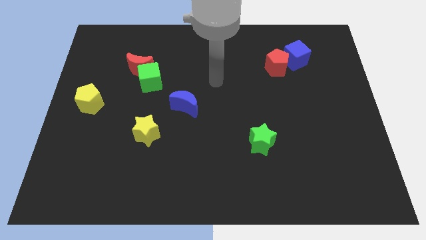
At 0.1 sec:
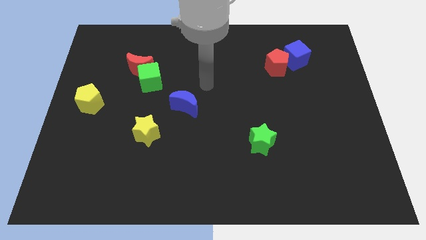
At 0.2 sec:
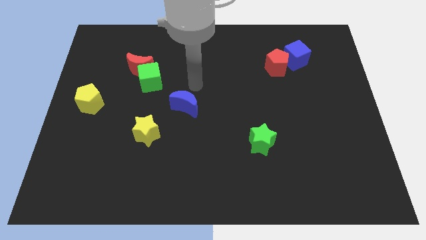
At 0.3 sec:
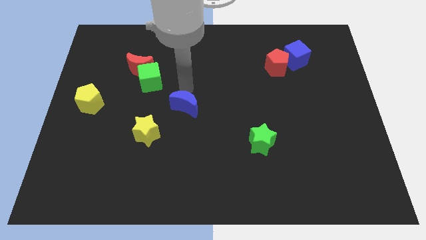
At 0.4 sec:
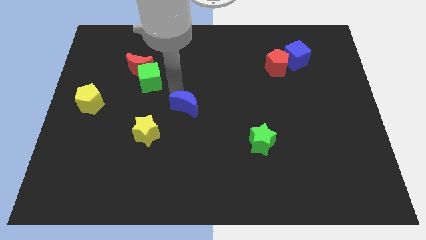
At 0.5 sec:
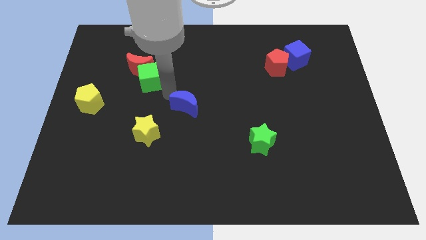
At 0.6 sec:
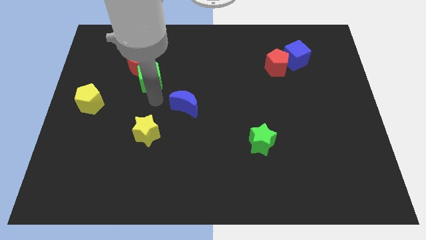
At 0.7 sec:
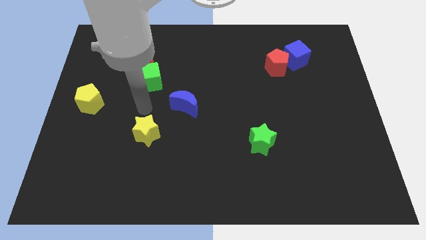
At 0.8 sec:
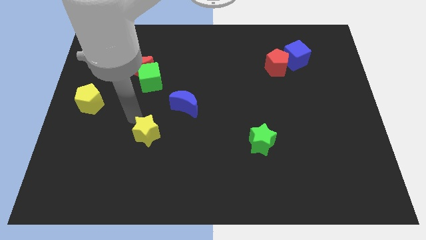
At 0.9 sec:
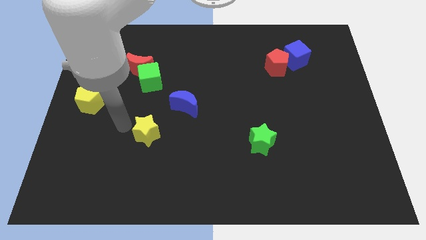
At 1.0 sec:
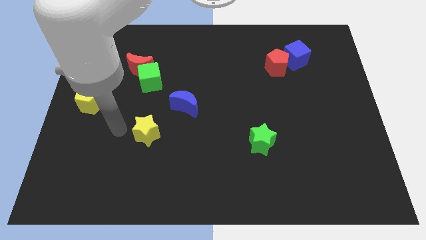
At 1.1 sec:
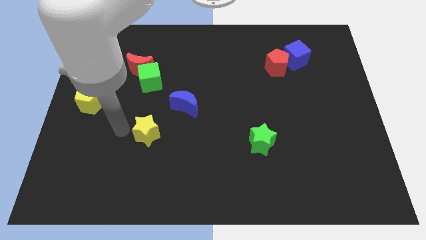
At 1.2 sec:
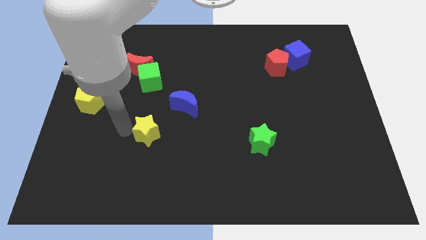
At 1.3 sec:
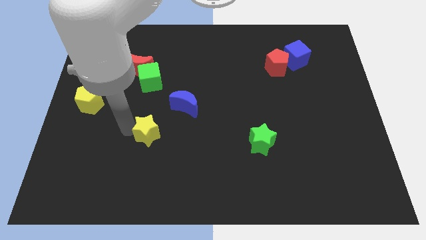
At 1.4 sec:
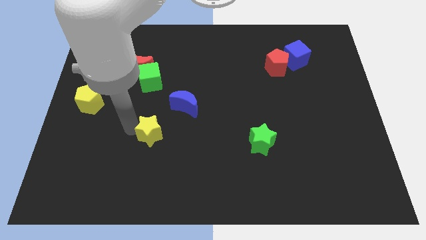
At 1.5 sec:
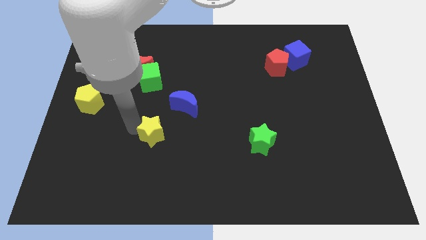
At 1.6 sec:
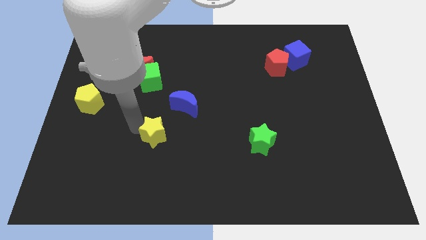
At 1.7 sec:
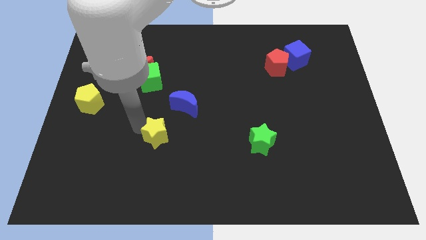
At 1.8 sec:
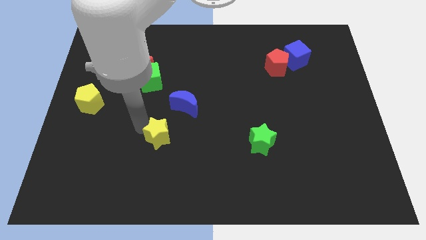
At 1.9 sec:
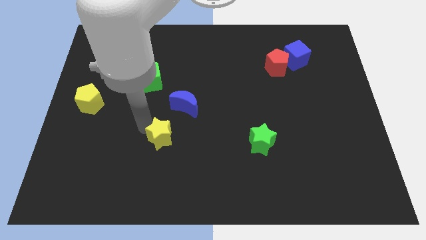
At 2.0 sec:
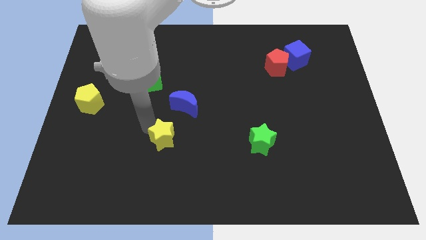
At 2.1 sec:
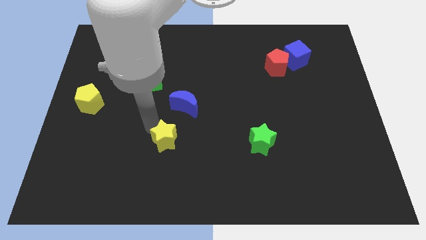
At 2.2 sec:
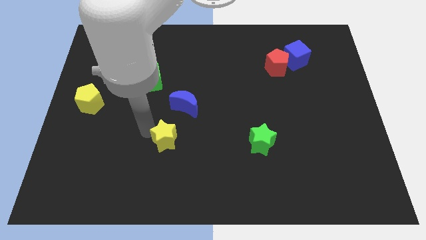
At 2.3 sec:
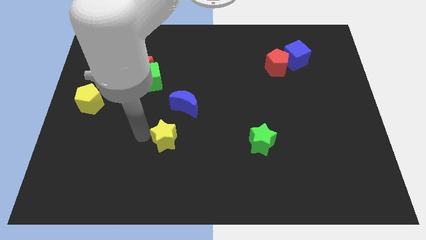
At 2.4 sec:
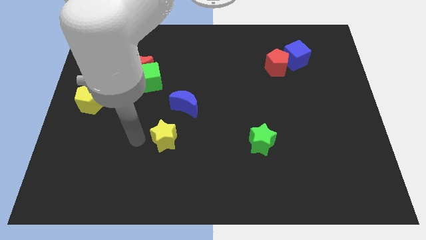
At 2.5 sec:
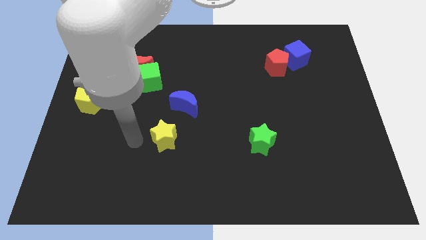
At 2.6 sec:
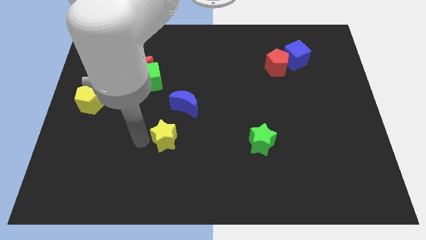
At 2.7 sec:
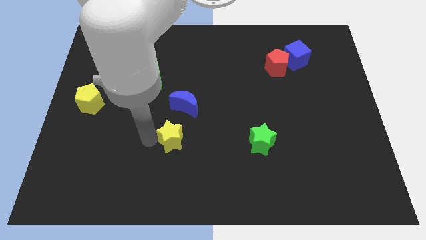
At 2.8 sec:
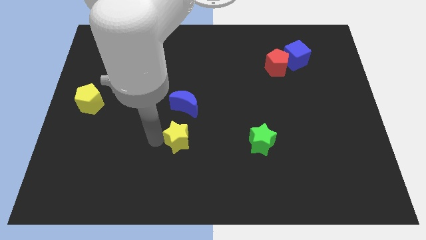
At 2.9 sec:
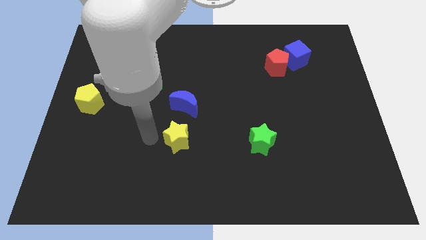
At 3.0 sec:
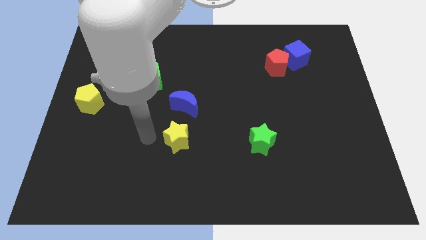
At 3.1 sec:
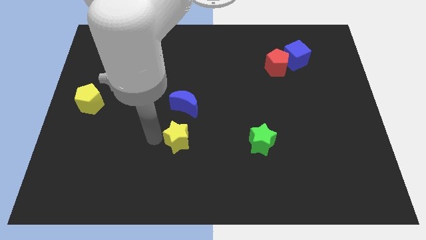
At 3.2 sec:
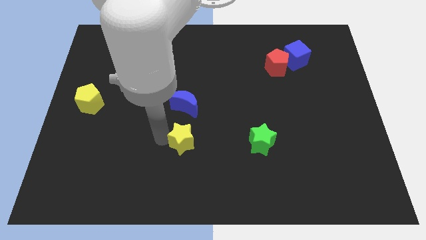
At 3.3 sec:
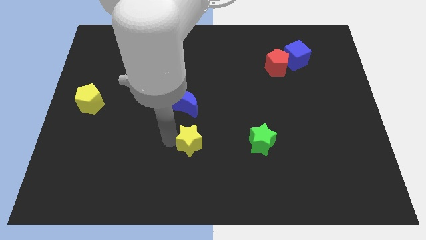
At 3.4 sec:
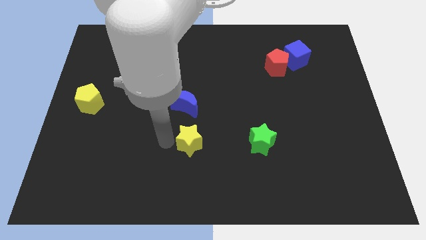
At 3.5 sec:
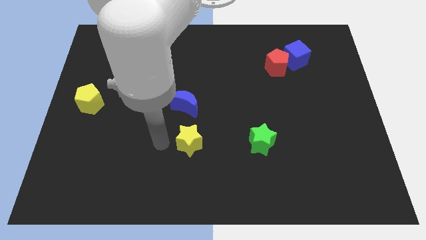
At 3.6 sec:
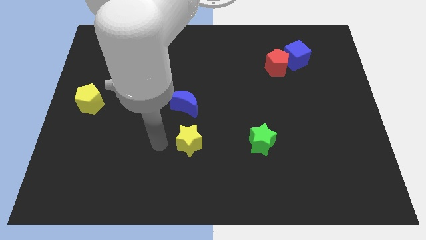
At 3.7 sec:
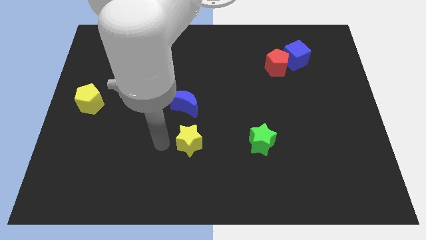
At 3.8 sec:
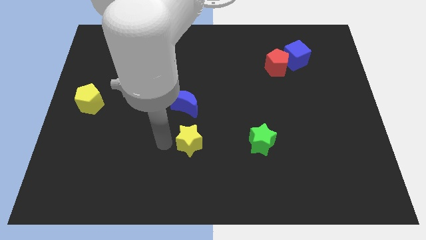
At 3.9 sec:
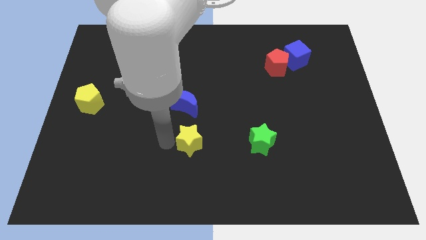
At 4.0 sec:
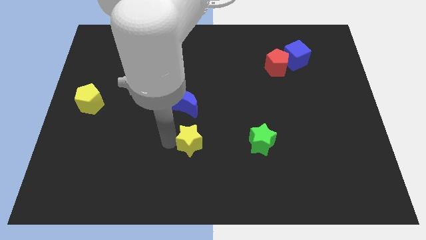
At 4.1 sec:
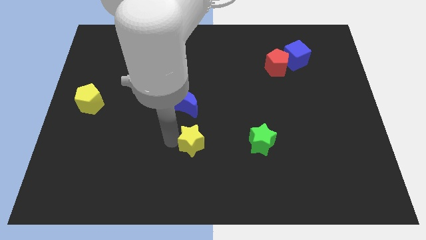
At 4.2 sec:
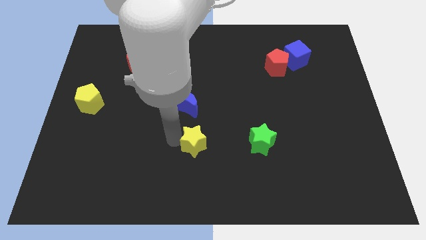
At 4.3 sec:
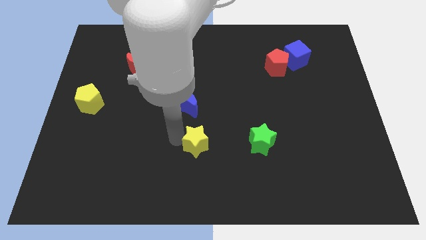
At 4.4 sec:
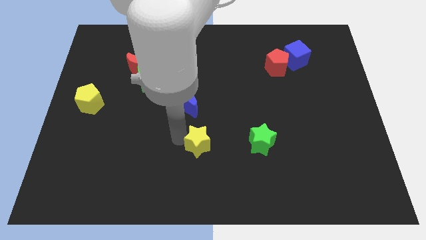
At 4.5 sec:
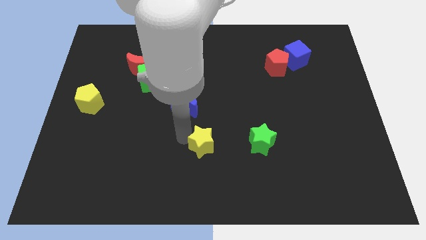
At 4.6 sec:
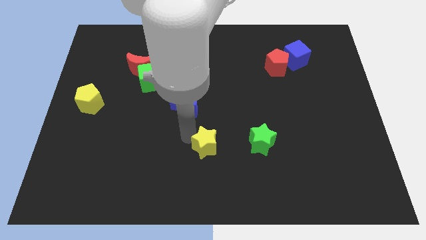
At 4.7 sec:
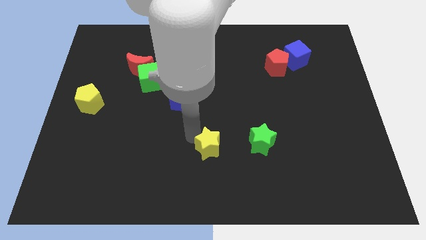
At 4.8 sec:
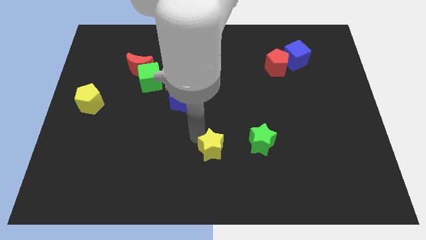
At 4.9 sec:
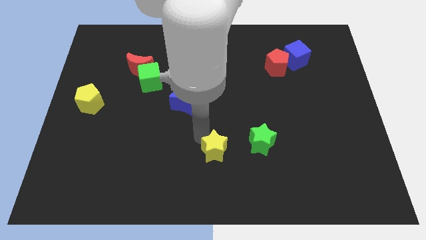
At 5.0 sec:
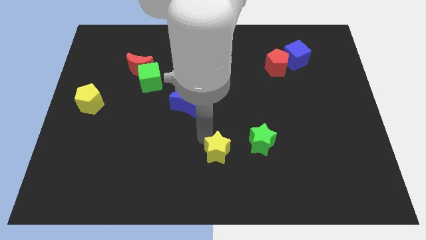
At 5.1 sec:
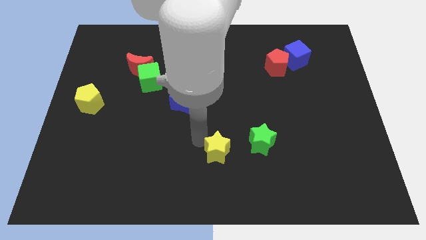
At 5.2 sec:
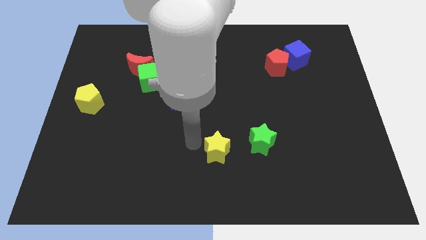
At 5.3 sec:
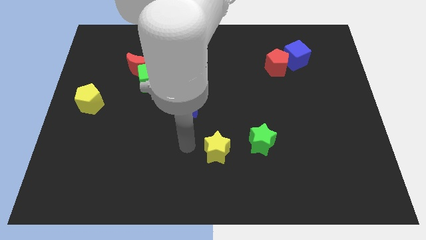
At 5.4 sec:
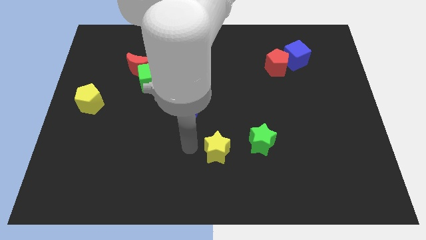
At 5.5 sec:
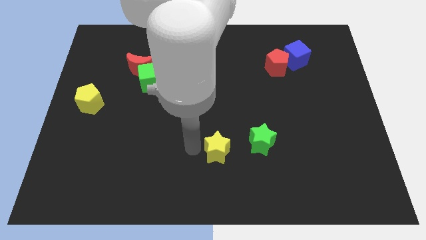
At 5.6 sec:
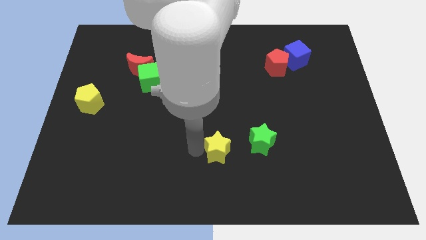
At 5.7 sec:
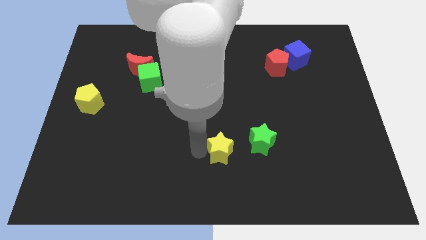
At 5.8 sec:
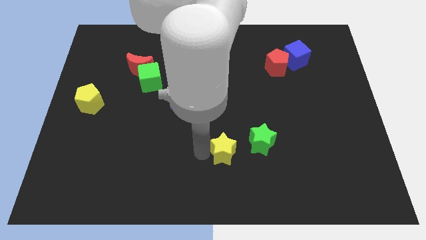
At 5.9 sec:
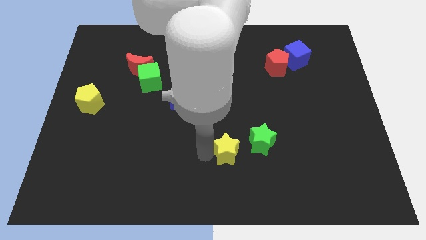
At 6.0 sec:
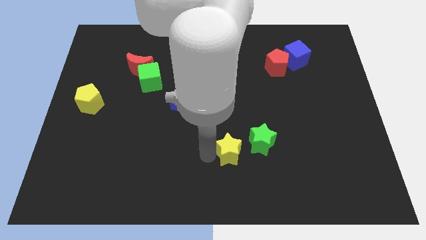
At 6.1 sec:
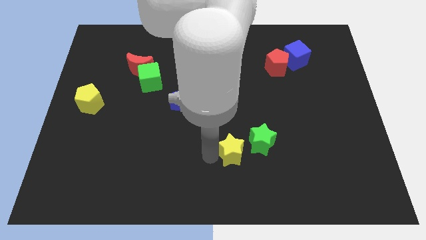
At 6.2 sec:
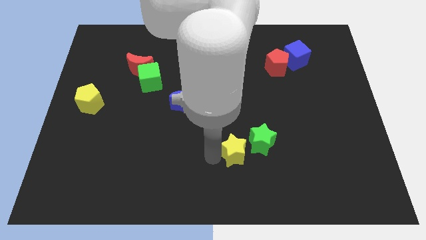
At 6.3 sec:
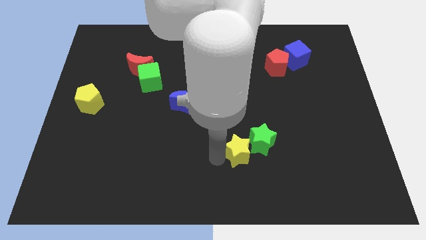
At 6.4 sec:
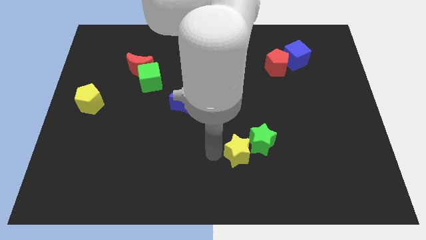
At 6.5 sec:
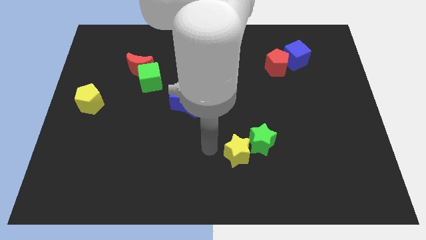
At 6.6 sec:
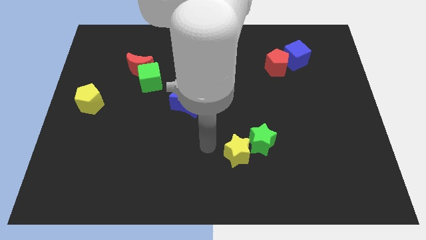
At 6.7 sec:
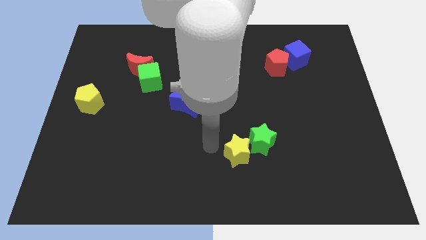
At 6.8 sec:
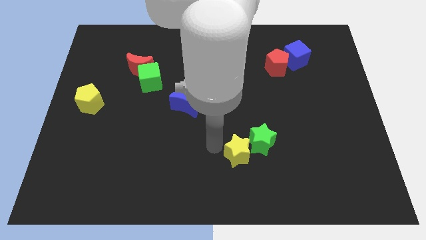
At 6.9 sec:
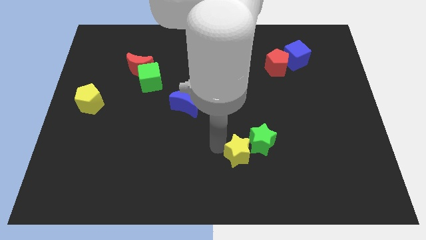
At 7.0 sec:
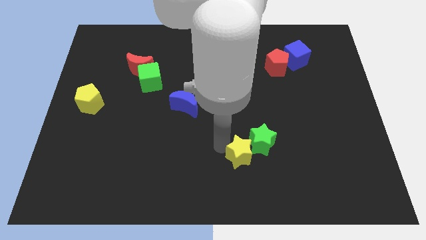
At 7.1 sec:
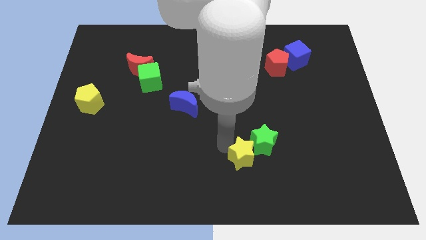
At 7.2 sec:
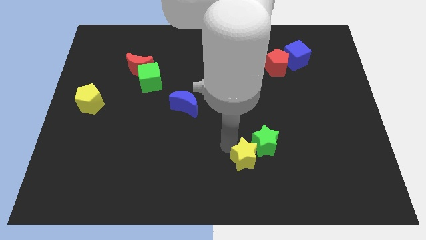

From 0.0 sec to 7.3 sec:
push the yellow star to the right

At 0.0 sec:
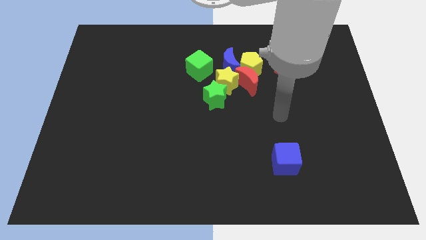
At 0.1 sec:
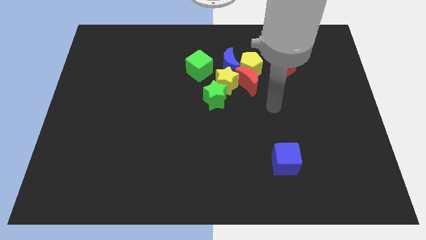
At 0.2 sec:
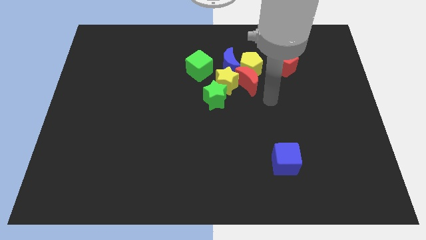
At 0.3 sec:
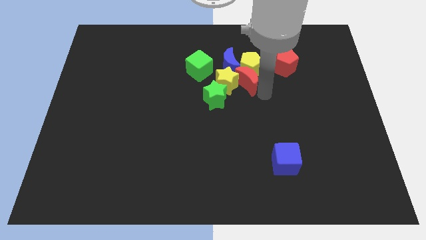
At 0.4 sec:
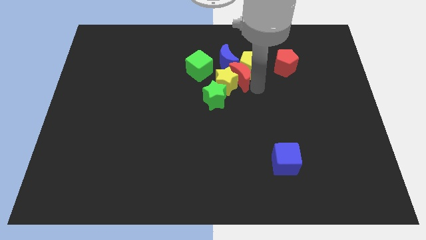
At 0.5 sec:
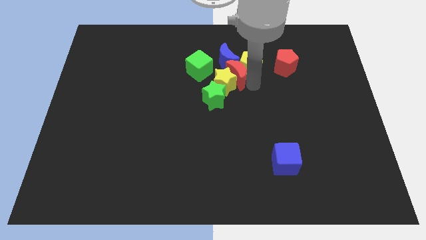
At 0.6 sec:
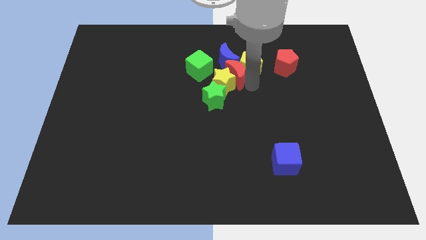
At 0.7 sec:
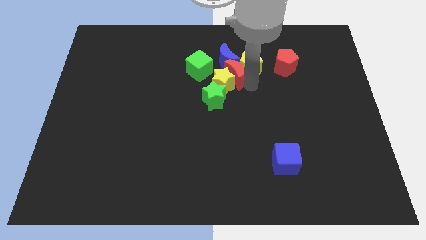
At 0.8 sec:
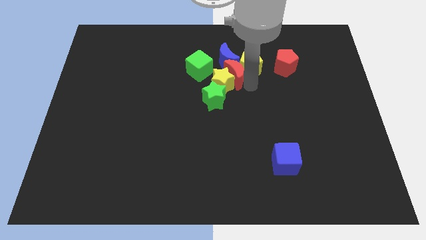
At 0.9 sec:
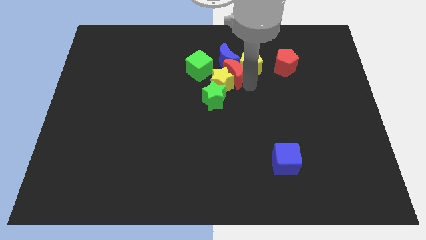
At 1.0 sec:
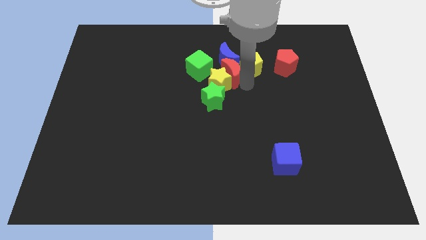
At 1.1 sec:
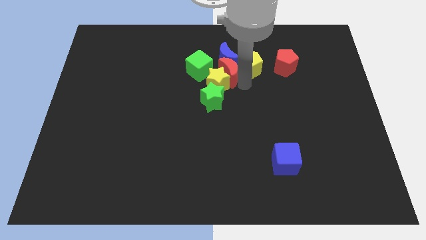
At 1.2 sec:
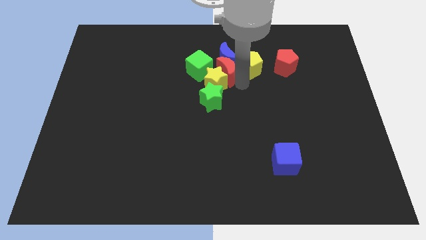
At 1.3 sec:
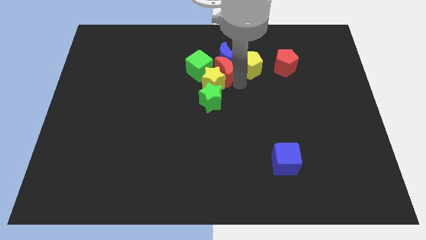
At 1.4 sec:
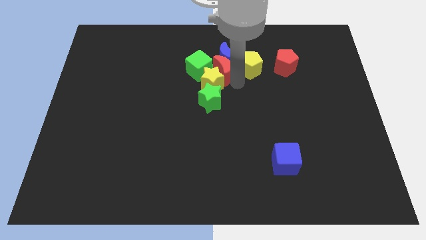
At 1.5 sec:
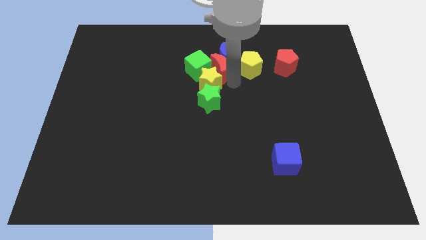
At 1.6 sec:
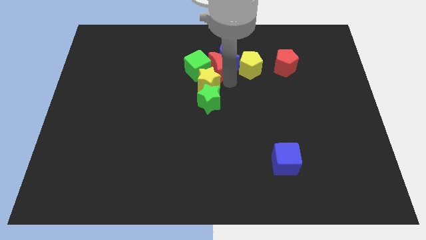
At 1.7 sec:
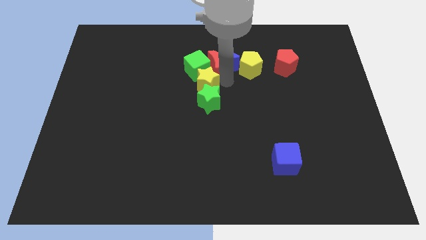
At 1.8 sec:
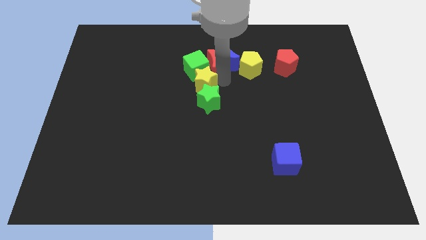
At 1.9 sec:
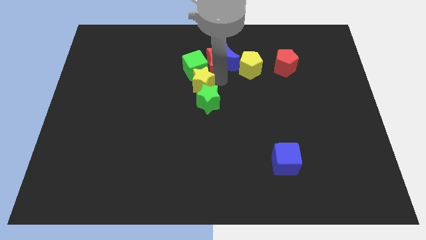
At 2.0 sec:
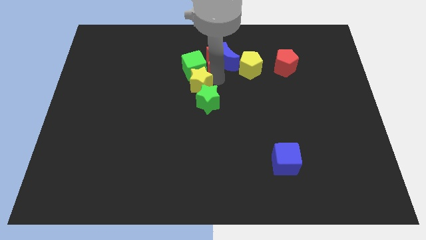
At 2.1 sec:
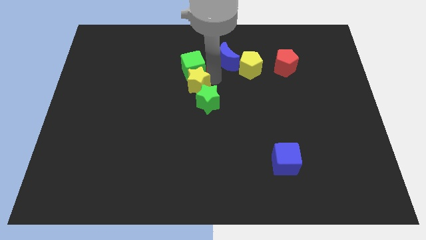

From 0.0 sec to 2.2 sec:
slightly move the yellow star to the left
